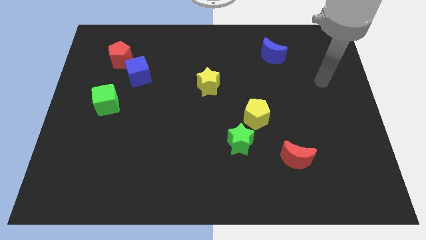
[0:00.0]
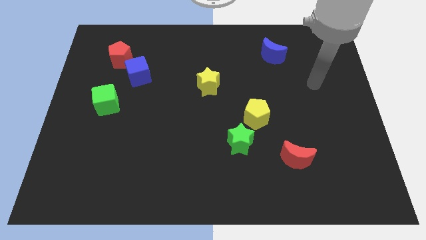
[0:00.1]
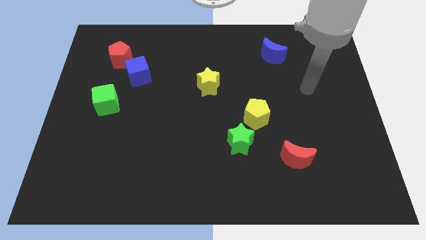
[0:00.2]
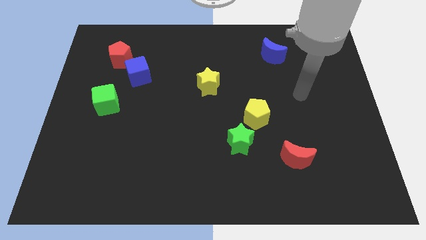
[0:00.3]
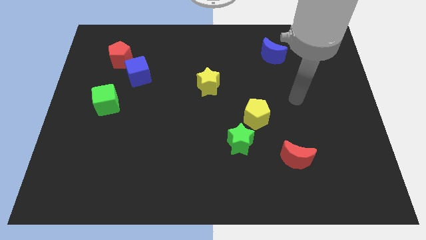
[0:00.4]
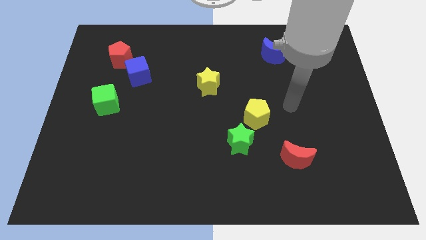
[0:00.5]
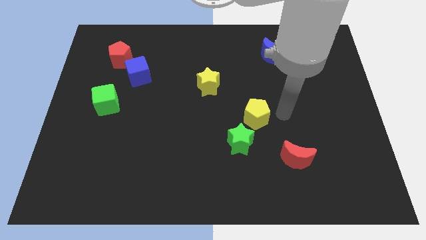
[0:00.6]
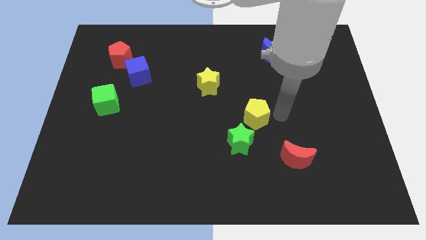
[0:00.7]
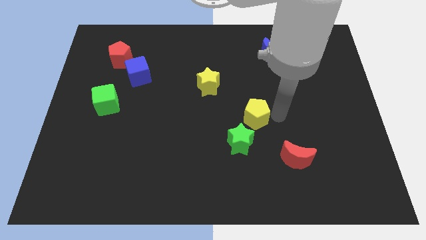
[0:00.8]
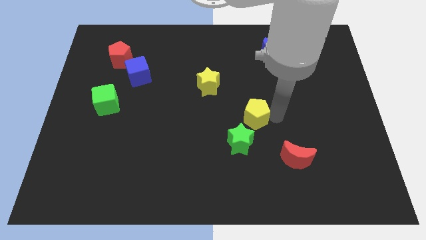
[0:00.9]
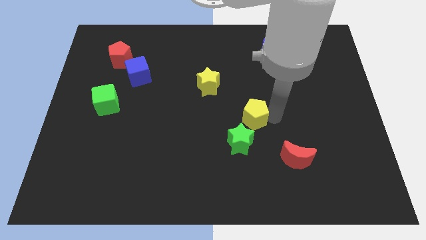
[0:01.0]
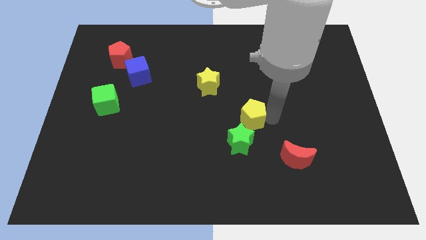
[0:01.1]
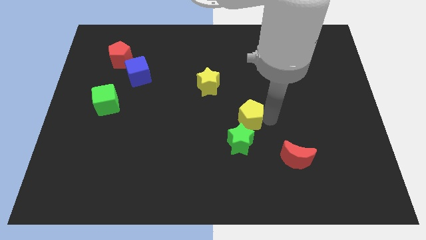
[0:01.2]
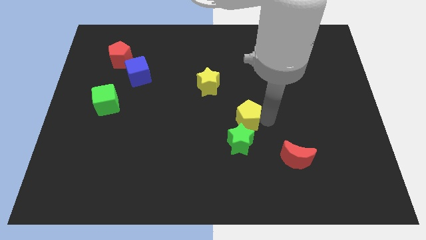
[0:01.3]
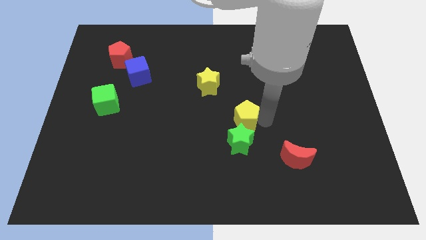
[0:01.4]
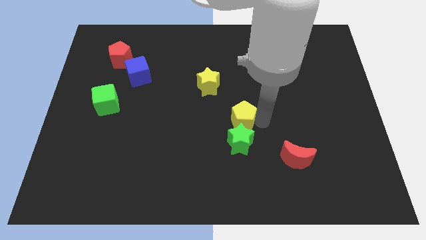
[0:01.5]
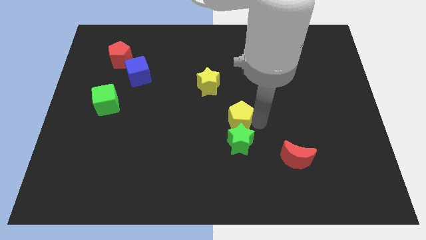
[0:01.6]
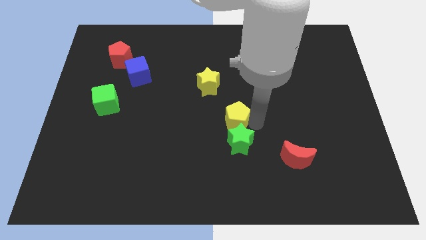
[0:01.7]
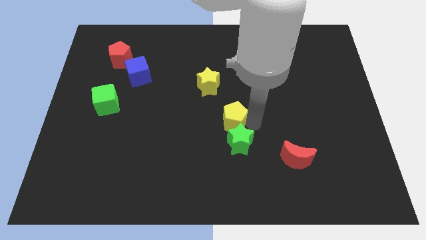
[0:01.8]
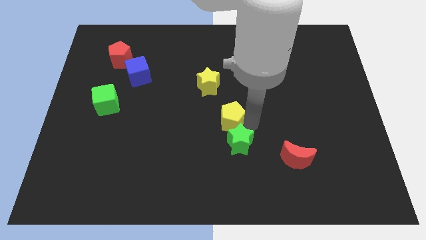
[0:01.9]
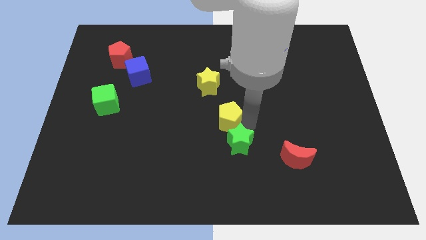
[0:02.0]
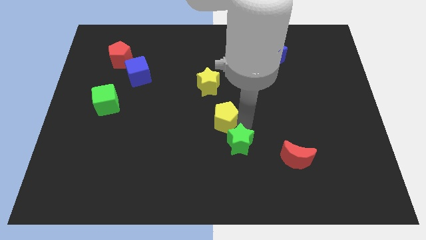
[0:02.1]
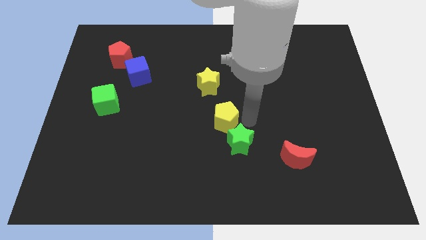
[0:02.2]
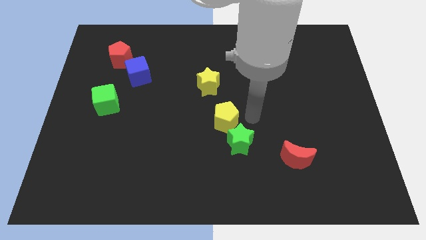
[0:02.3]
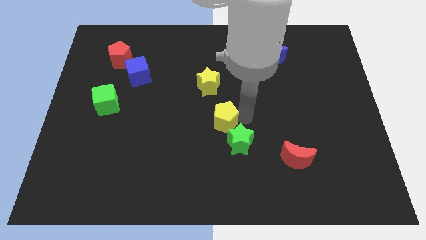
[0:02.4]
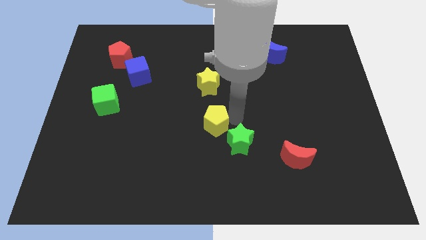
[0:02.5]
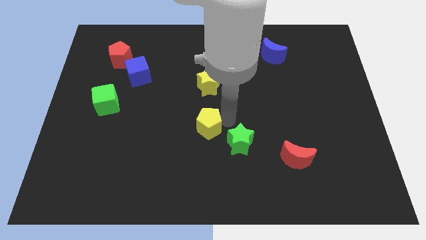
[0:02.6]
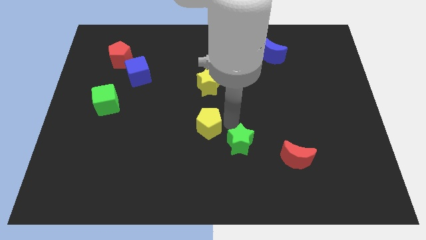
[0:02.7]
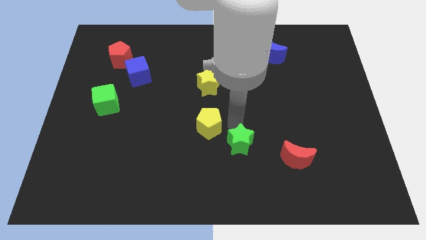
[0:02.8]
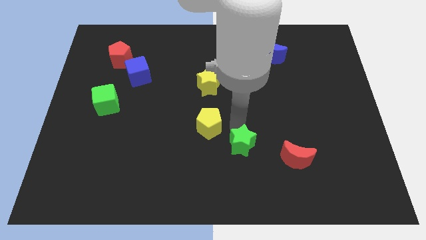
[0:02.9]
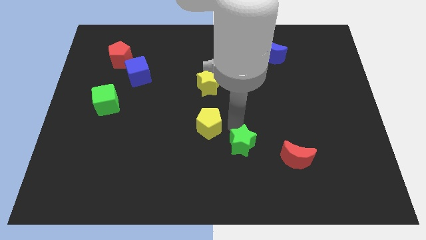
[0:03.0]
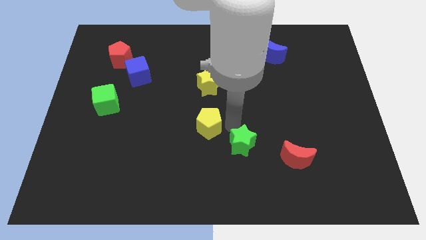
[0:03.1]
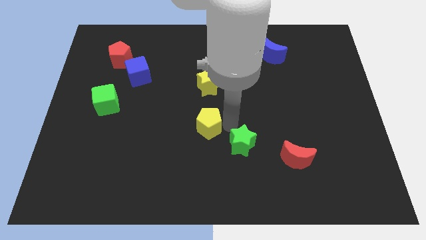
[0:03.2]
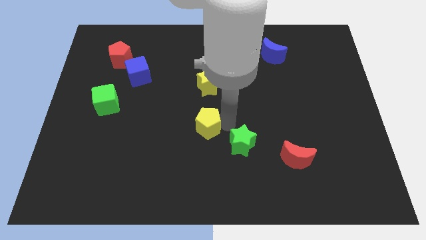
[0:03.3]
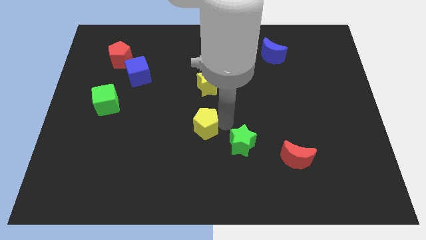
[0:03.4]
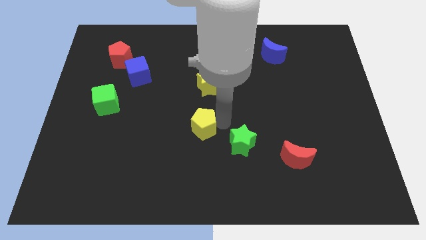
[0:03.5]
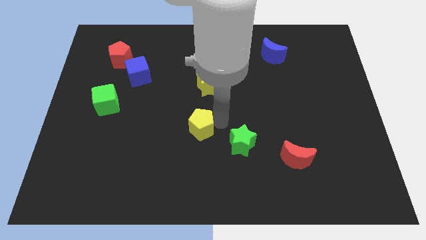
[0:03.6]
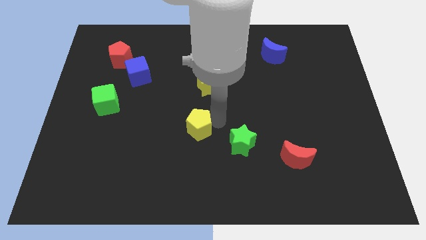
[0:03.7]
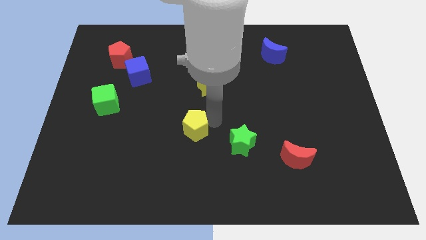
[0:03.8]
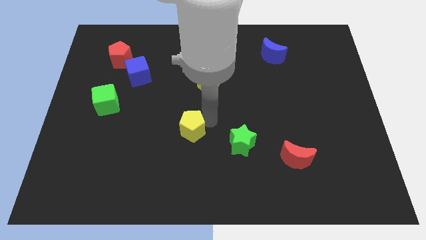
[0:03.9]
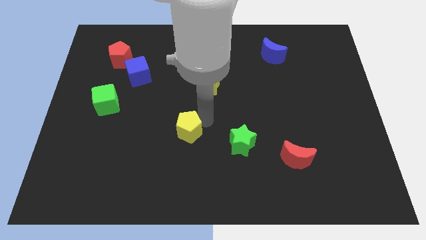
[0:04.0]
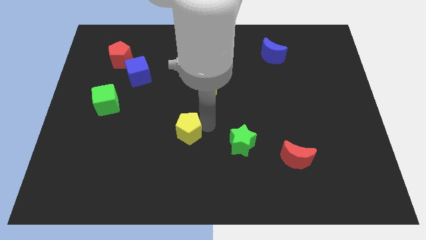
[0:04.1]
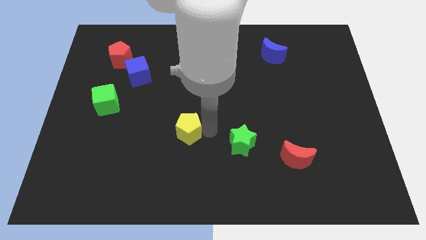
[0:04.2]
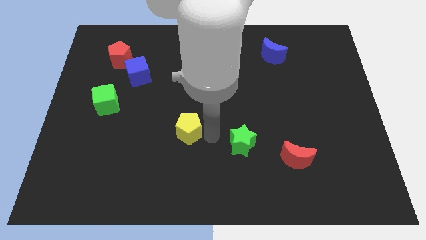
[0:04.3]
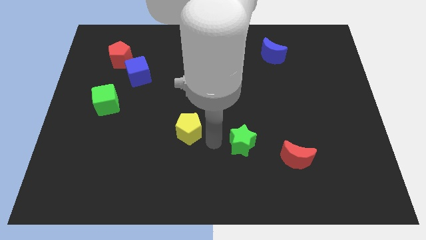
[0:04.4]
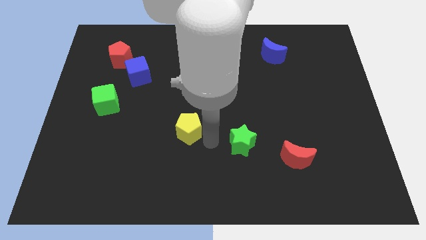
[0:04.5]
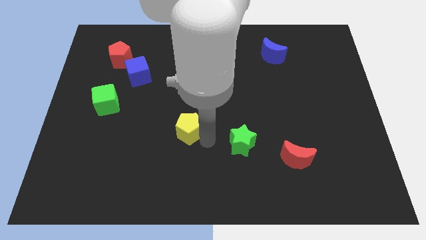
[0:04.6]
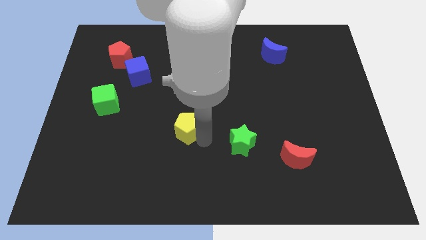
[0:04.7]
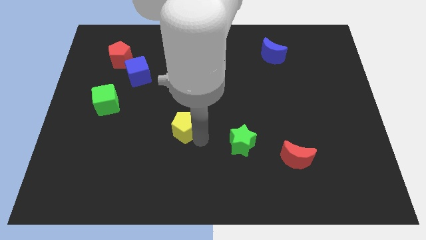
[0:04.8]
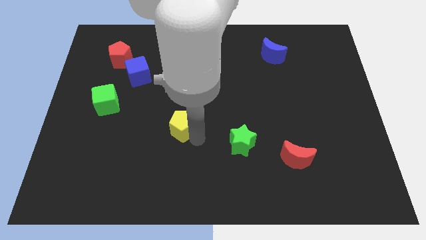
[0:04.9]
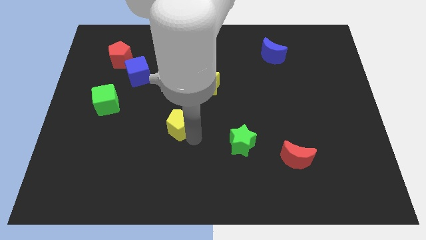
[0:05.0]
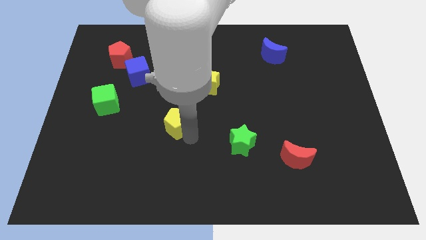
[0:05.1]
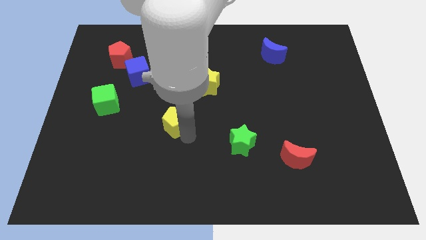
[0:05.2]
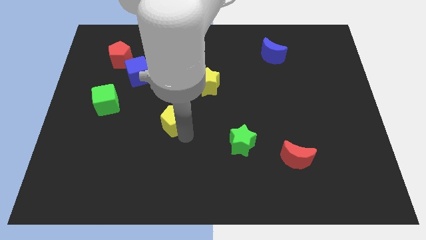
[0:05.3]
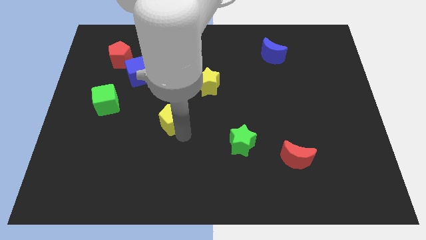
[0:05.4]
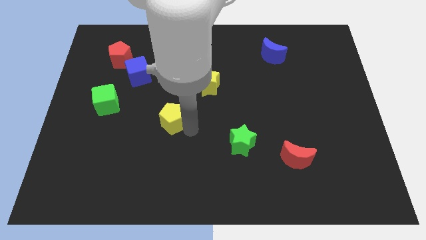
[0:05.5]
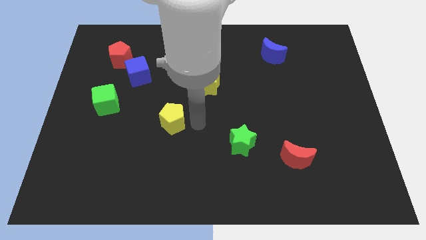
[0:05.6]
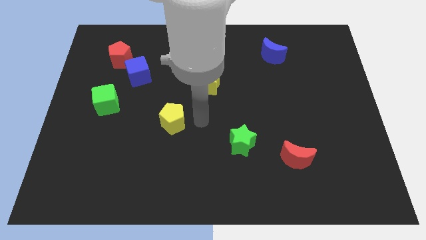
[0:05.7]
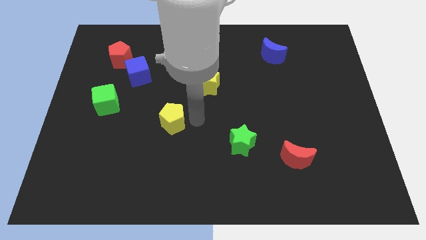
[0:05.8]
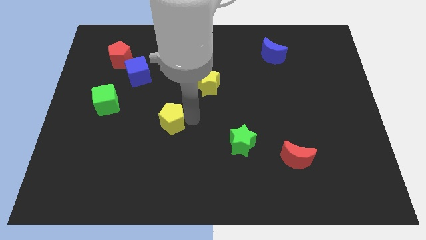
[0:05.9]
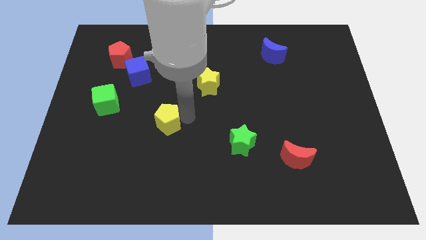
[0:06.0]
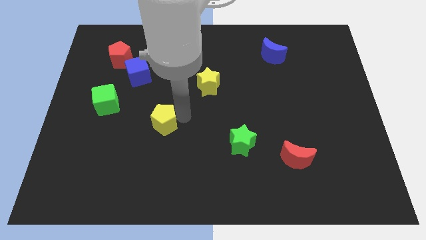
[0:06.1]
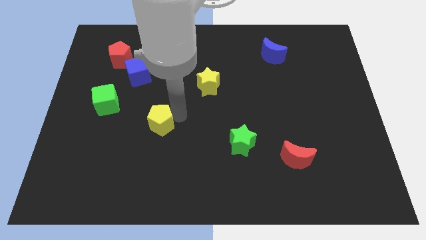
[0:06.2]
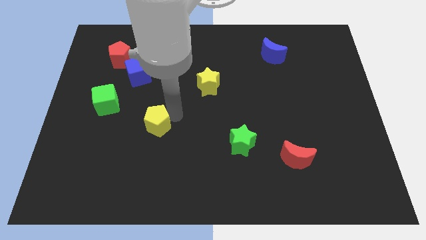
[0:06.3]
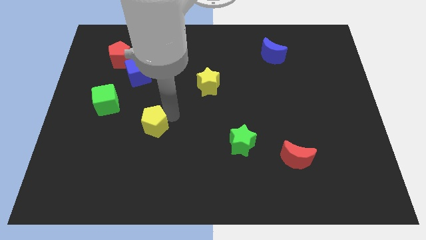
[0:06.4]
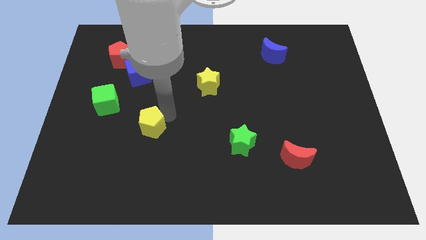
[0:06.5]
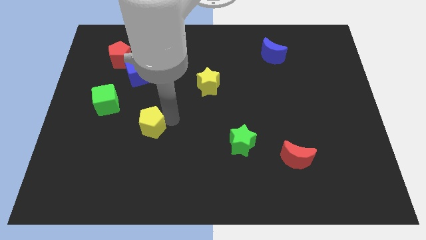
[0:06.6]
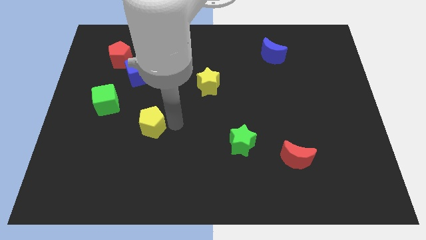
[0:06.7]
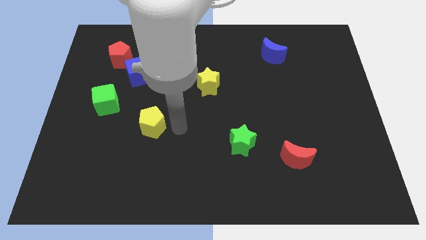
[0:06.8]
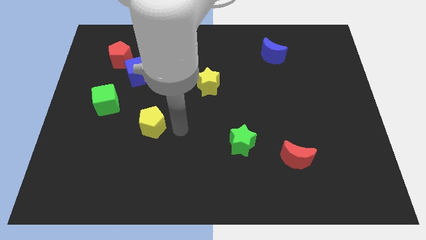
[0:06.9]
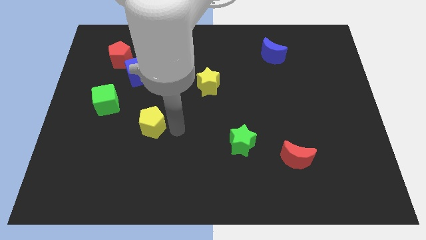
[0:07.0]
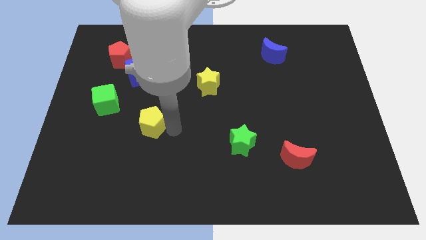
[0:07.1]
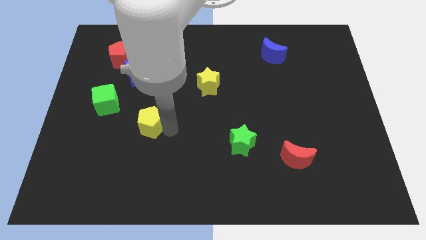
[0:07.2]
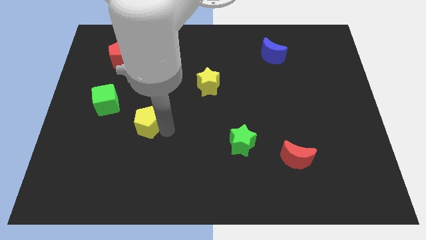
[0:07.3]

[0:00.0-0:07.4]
put the yellow pentagon to the bottom right of the green cube
